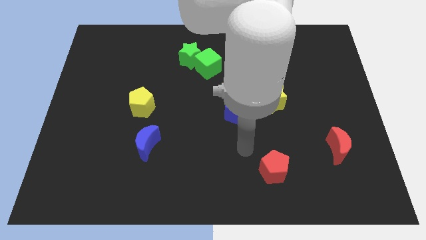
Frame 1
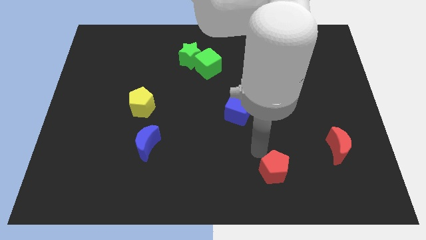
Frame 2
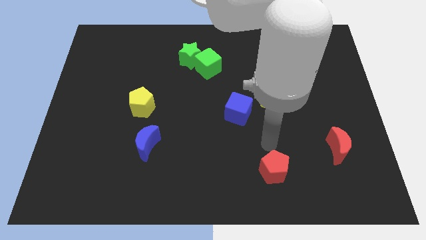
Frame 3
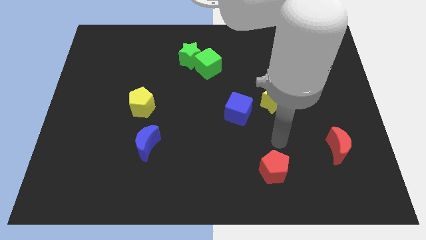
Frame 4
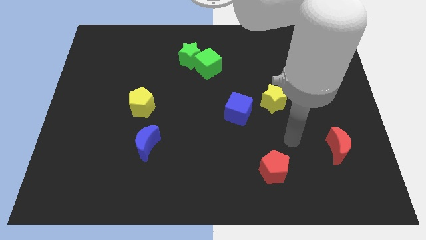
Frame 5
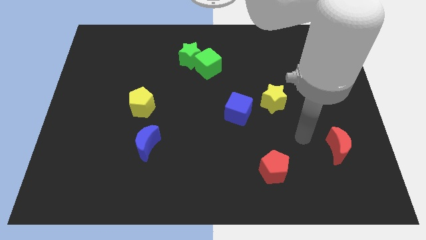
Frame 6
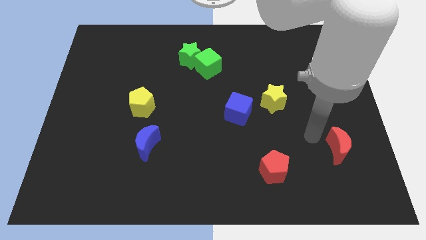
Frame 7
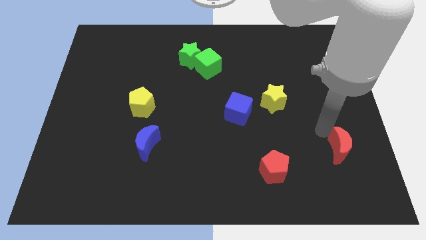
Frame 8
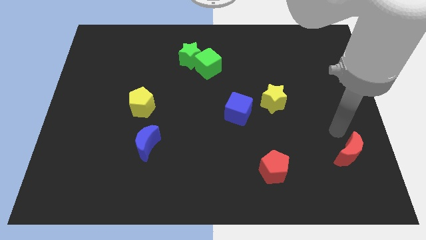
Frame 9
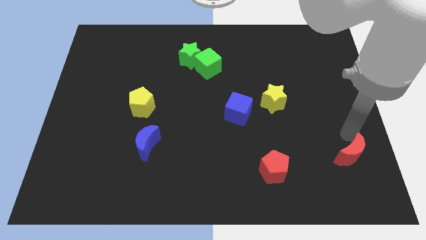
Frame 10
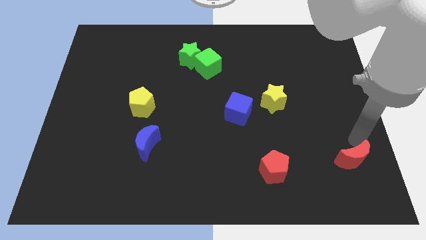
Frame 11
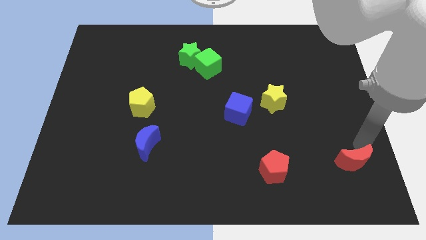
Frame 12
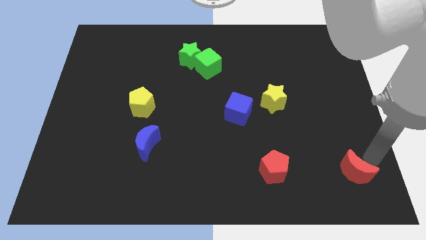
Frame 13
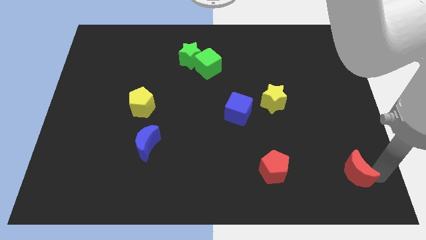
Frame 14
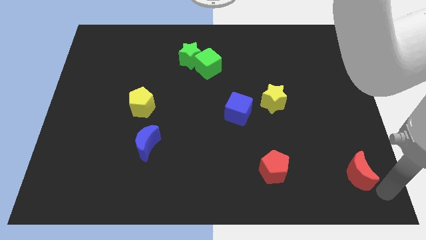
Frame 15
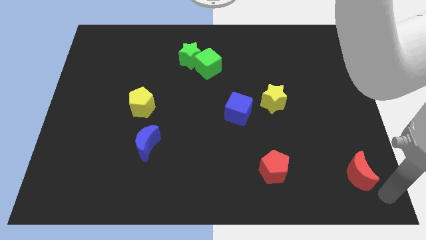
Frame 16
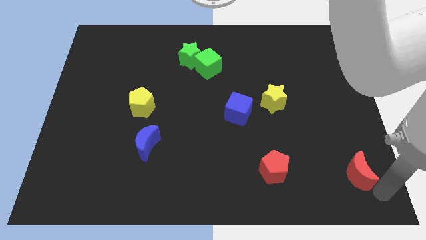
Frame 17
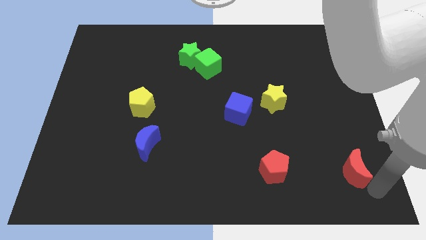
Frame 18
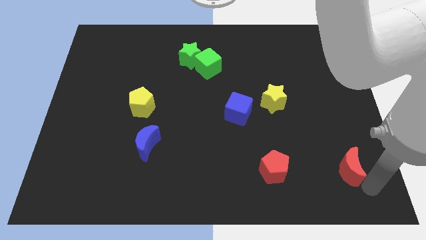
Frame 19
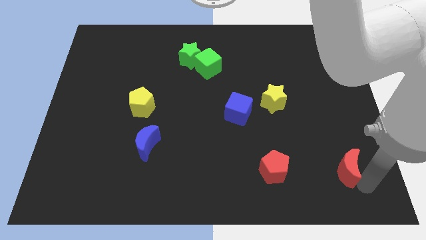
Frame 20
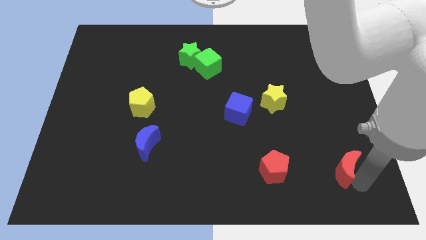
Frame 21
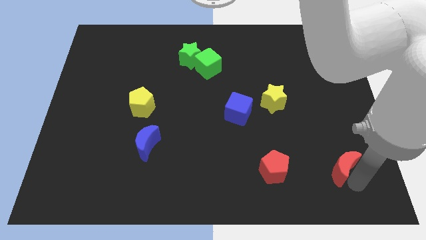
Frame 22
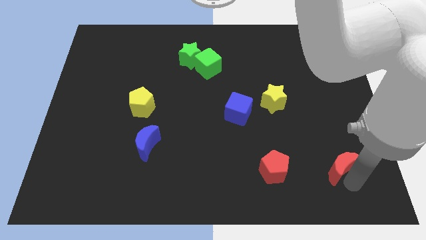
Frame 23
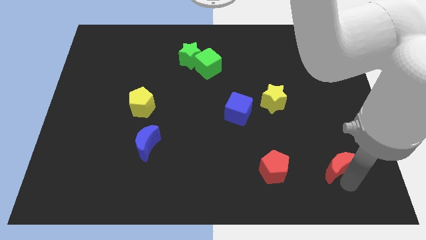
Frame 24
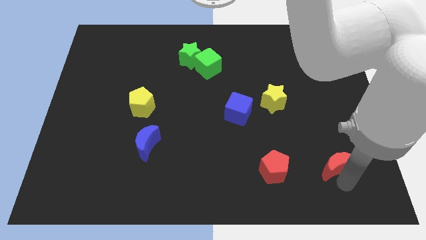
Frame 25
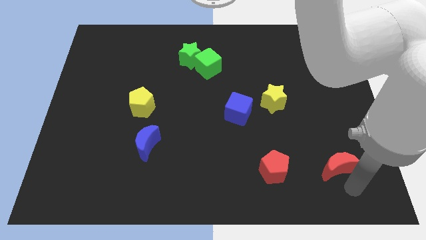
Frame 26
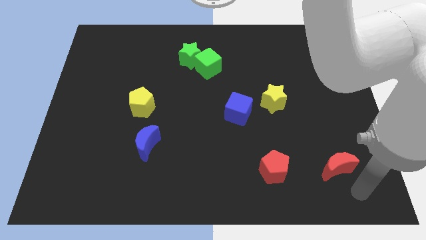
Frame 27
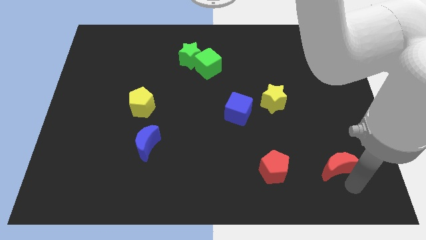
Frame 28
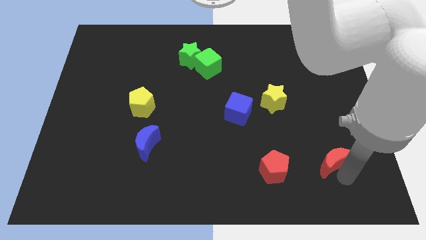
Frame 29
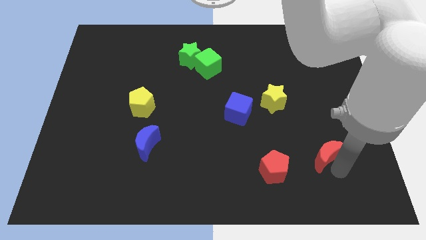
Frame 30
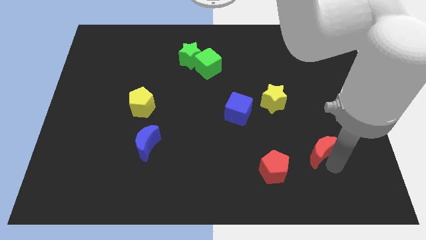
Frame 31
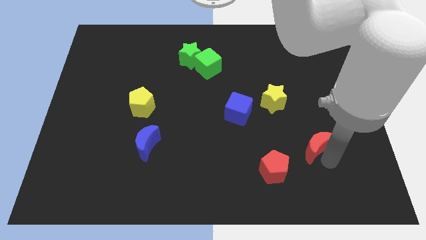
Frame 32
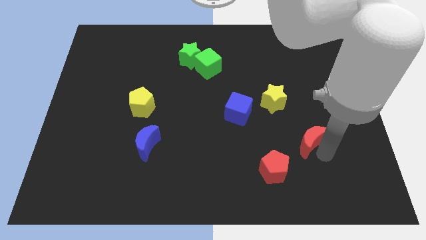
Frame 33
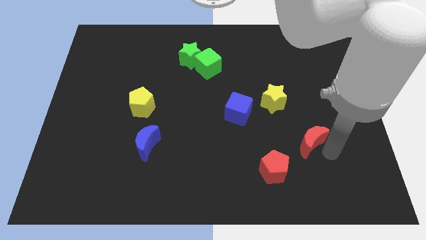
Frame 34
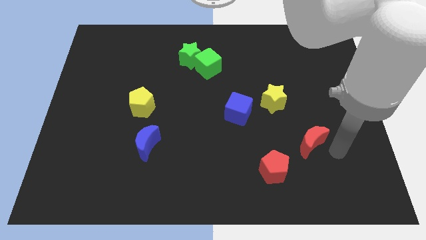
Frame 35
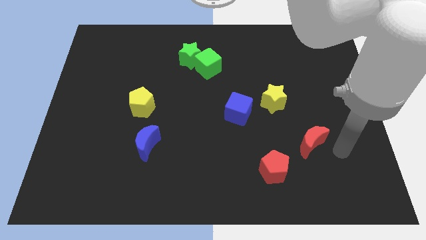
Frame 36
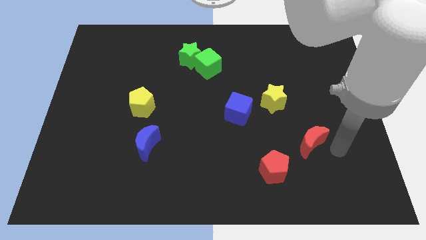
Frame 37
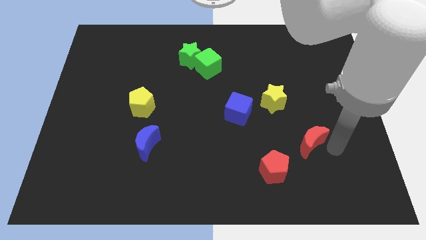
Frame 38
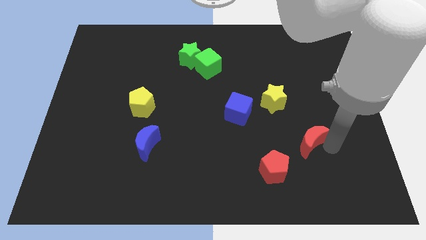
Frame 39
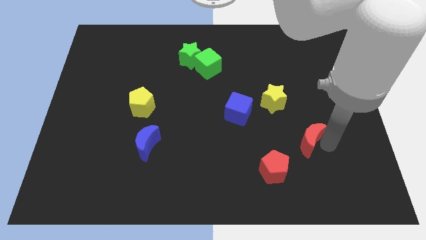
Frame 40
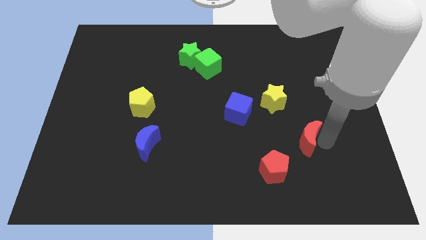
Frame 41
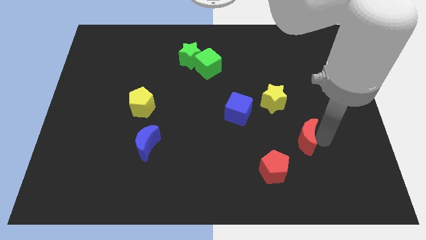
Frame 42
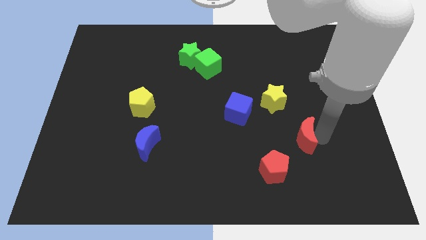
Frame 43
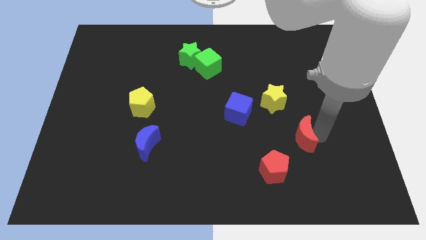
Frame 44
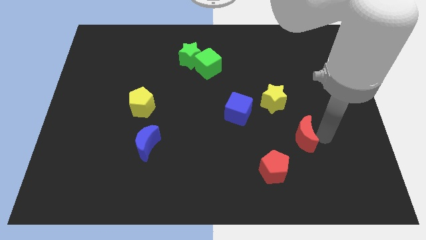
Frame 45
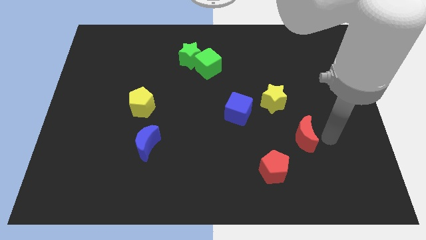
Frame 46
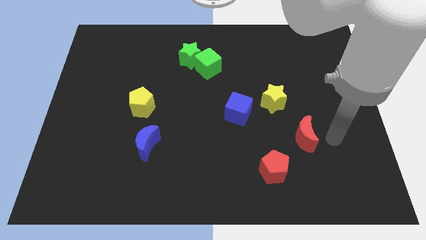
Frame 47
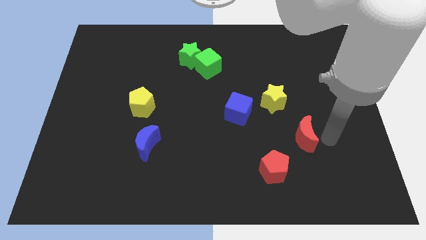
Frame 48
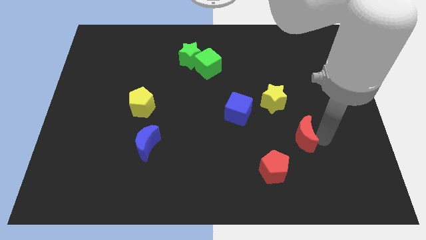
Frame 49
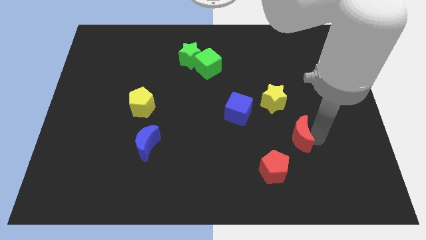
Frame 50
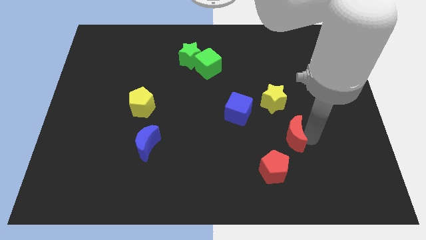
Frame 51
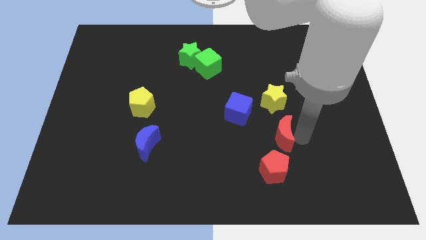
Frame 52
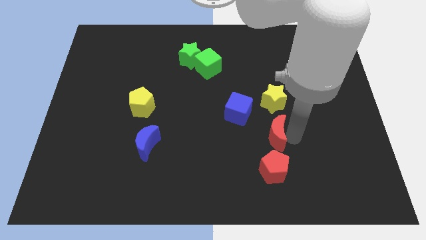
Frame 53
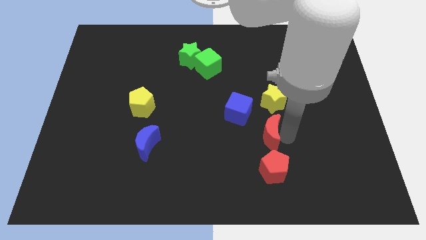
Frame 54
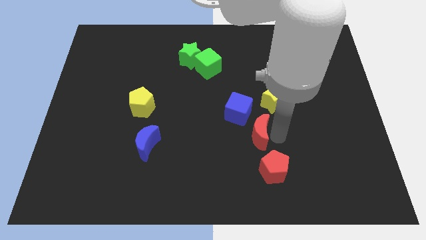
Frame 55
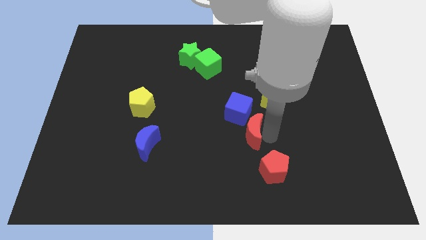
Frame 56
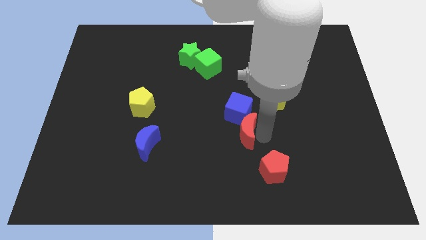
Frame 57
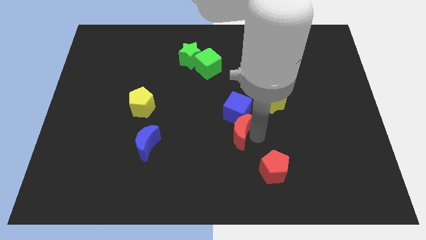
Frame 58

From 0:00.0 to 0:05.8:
push the red moon diagonally down and to the left of the blue cube

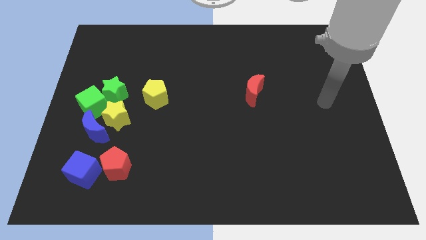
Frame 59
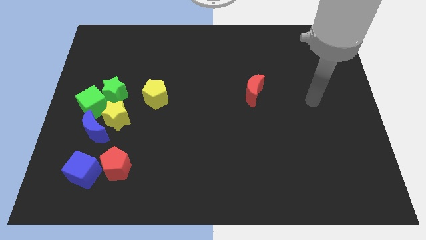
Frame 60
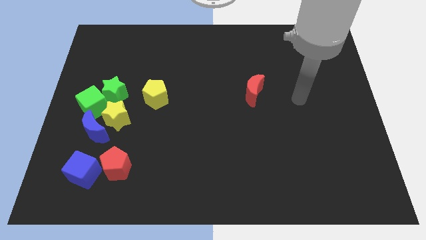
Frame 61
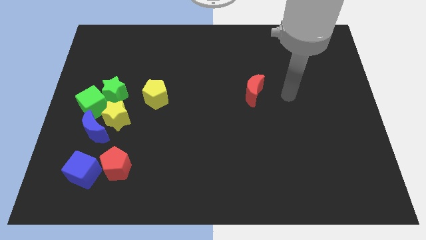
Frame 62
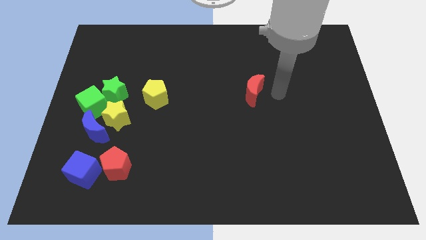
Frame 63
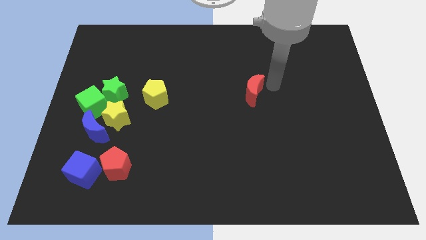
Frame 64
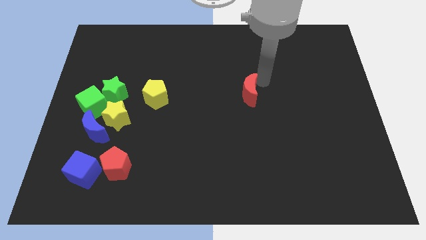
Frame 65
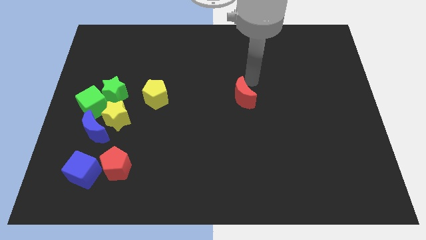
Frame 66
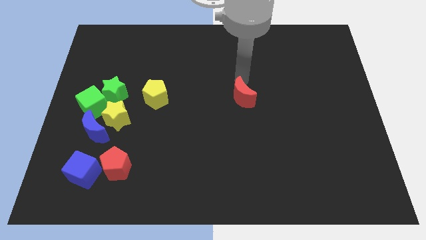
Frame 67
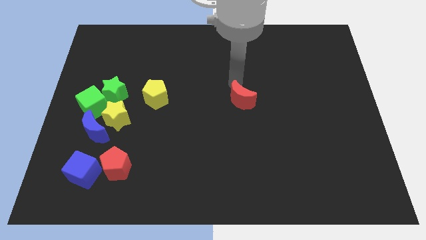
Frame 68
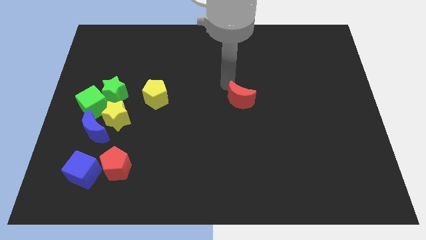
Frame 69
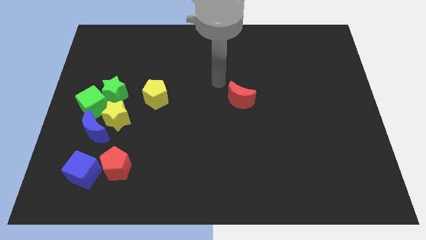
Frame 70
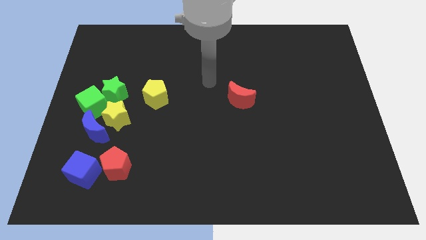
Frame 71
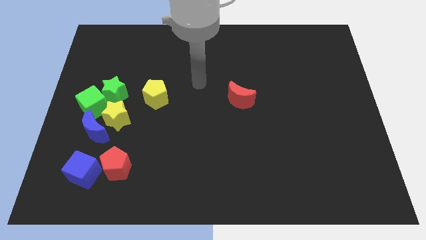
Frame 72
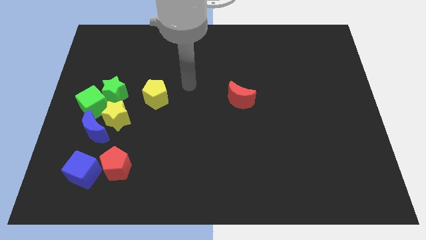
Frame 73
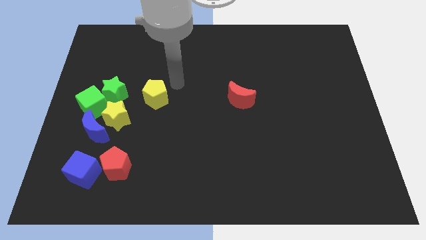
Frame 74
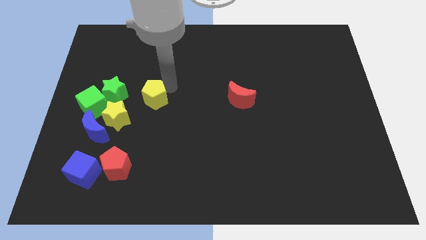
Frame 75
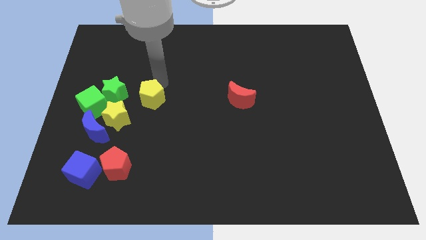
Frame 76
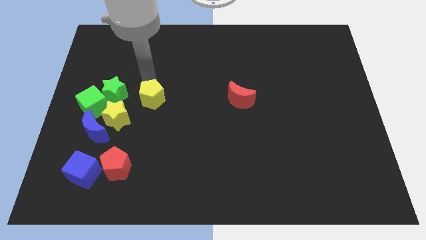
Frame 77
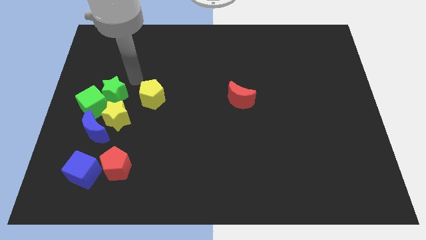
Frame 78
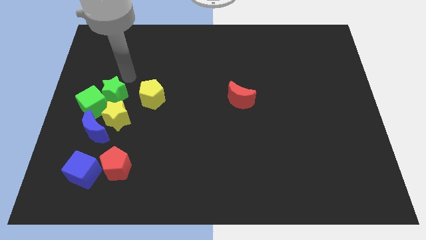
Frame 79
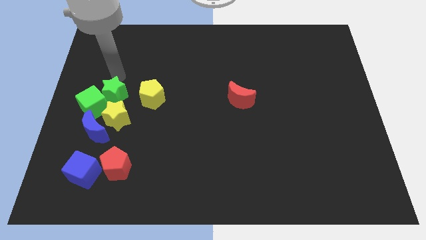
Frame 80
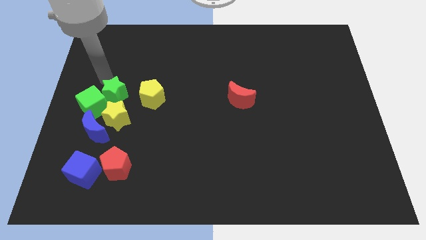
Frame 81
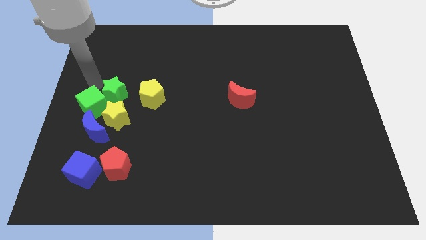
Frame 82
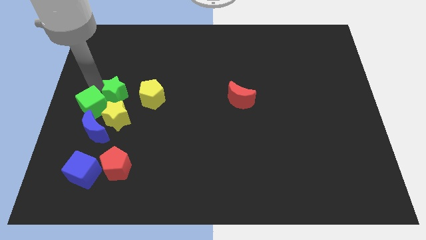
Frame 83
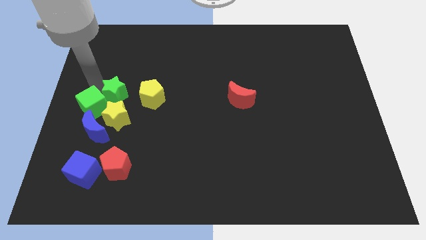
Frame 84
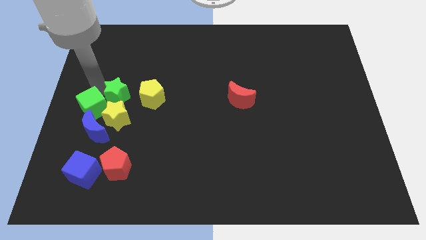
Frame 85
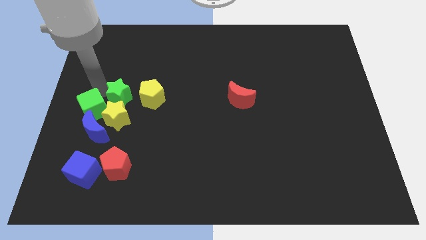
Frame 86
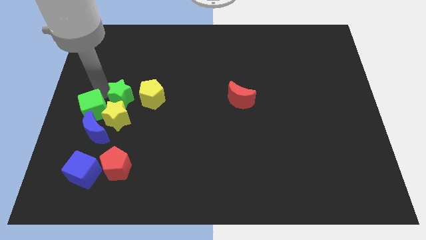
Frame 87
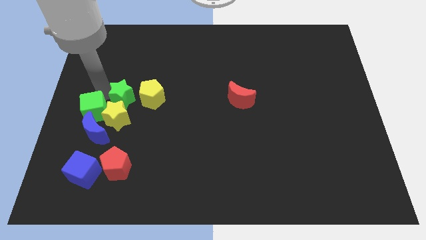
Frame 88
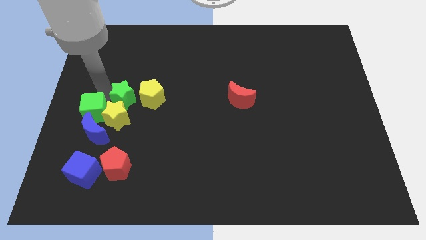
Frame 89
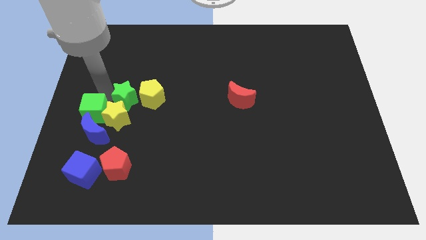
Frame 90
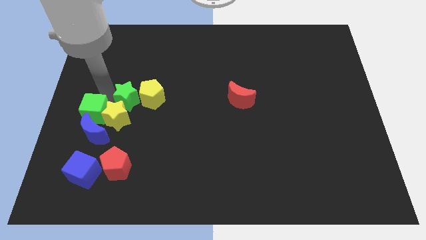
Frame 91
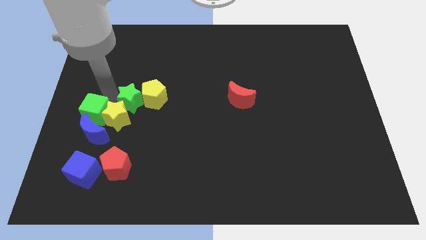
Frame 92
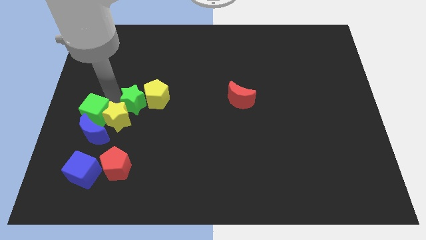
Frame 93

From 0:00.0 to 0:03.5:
push the green star to the right side of the yellow star
